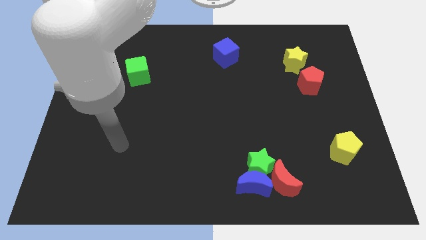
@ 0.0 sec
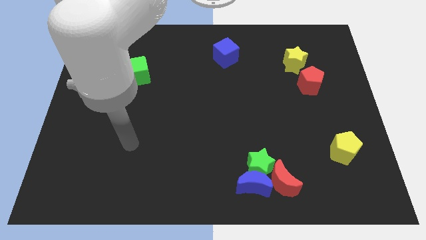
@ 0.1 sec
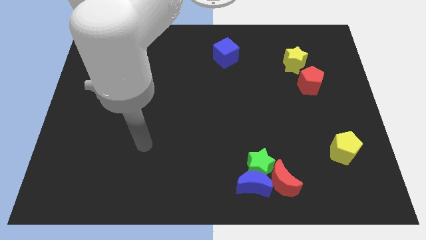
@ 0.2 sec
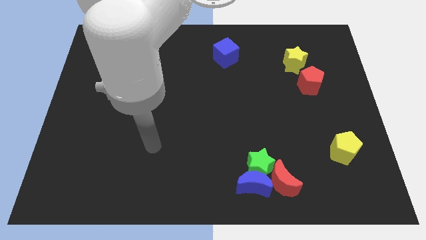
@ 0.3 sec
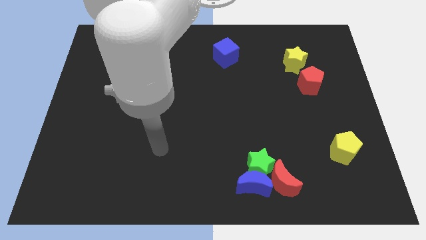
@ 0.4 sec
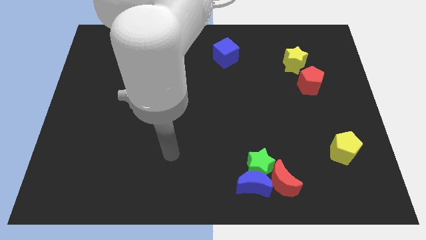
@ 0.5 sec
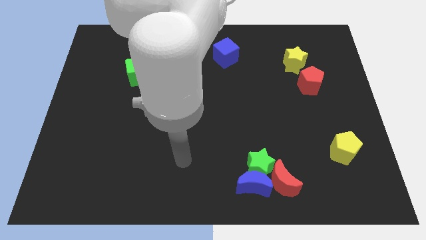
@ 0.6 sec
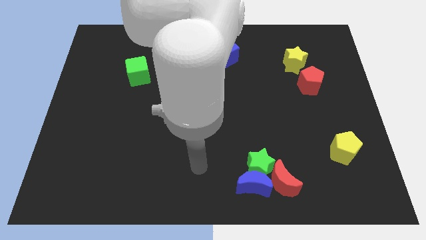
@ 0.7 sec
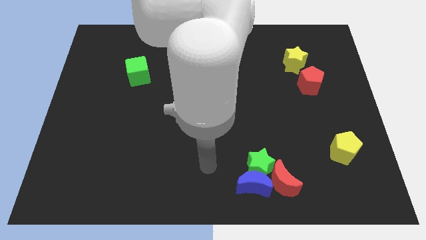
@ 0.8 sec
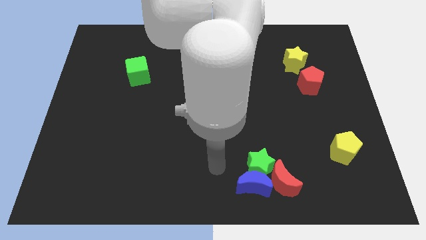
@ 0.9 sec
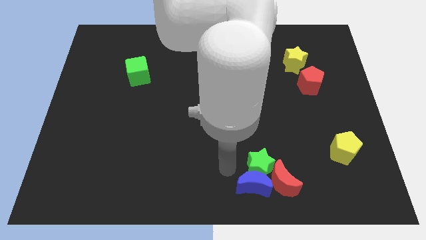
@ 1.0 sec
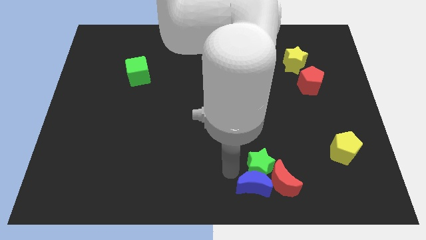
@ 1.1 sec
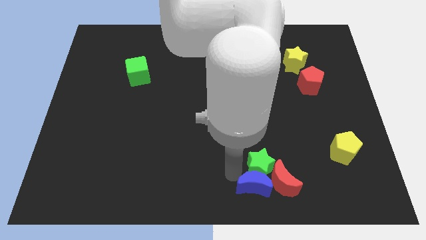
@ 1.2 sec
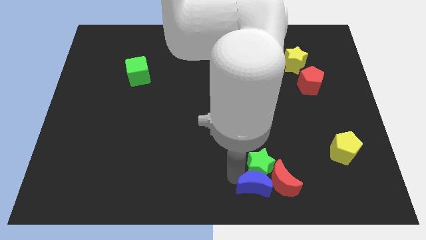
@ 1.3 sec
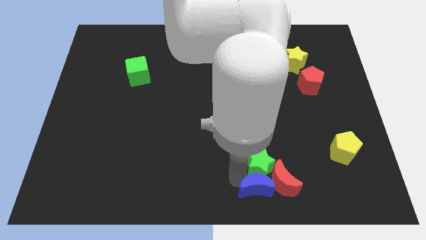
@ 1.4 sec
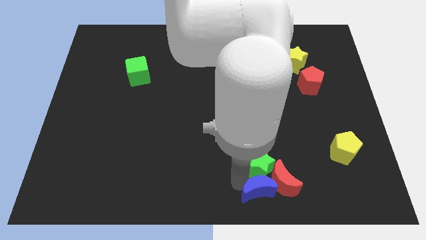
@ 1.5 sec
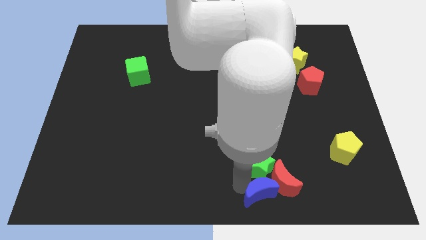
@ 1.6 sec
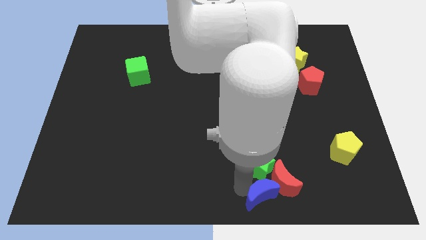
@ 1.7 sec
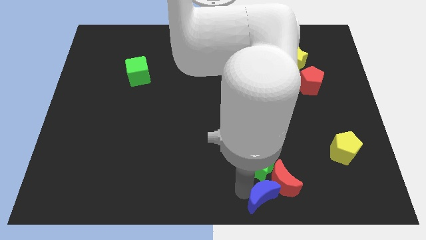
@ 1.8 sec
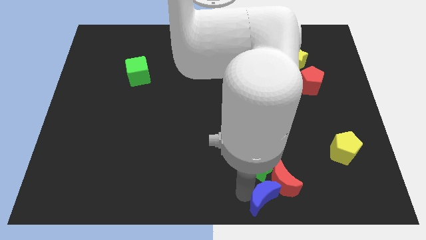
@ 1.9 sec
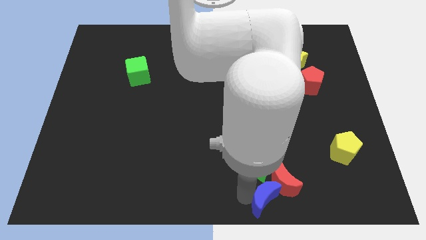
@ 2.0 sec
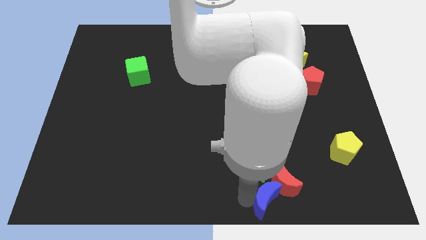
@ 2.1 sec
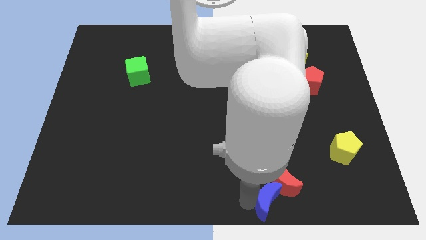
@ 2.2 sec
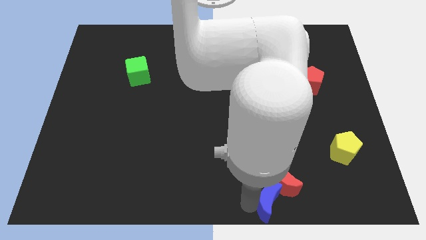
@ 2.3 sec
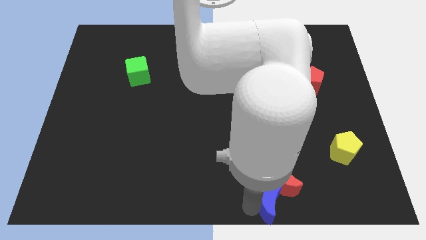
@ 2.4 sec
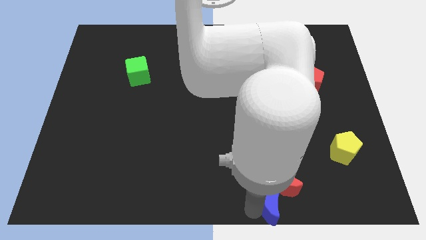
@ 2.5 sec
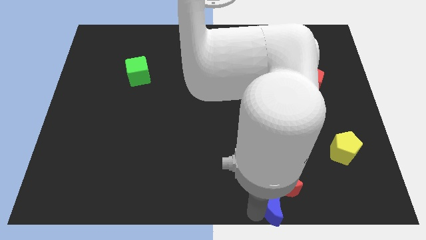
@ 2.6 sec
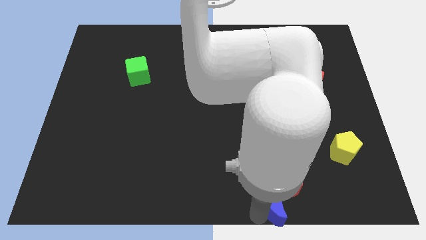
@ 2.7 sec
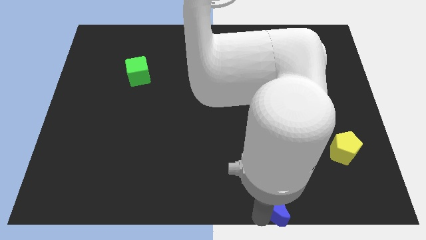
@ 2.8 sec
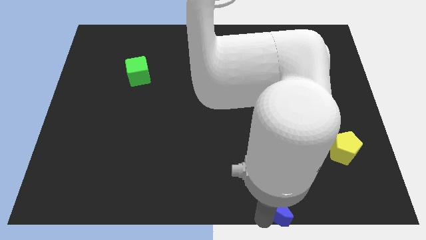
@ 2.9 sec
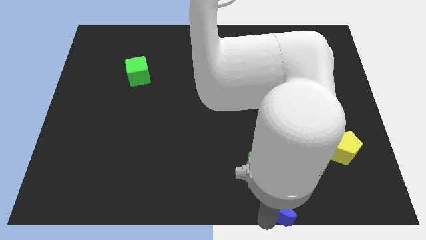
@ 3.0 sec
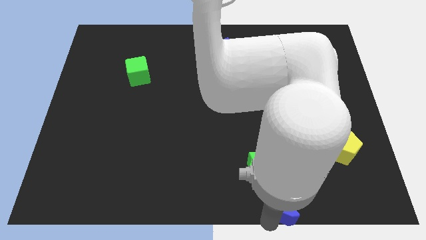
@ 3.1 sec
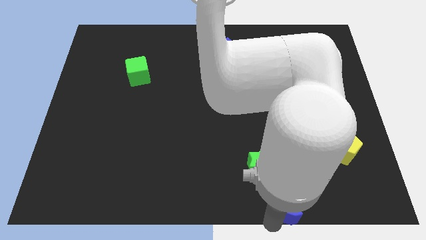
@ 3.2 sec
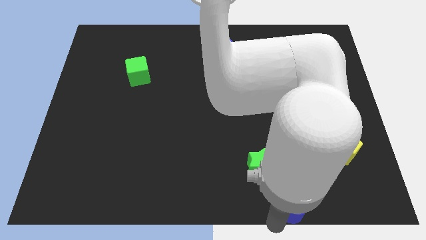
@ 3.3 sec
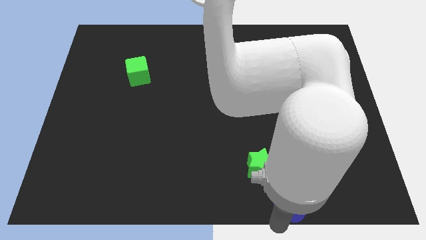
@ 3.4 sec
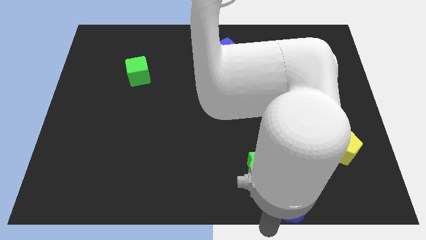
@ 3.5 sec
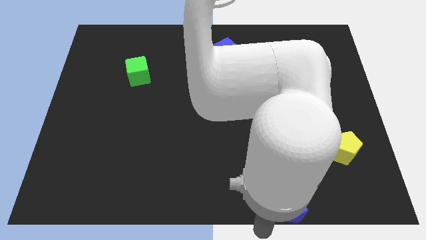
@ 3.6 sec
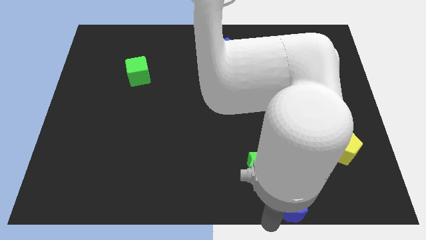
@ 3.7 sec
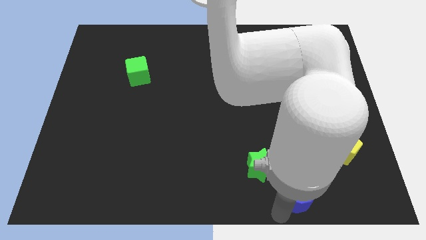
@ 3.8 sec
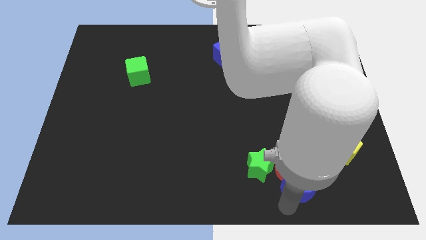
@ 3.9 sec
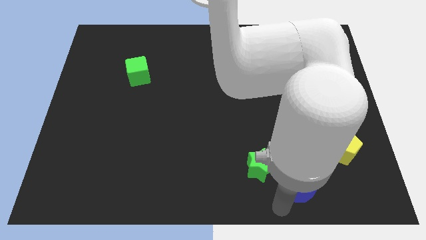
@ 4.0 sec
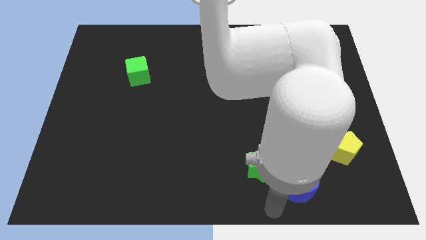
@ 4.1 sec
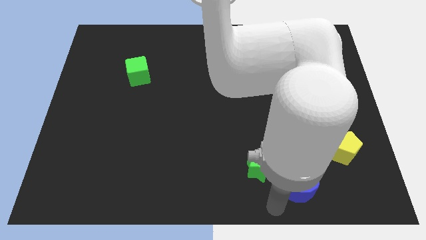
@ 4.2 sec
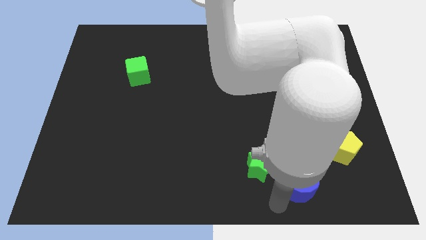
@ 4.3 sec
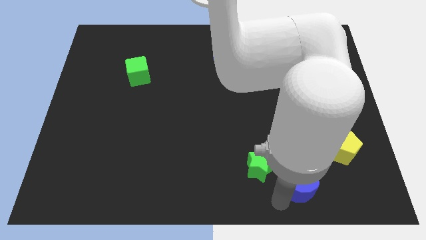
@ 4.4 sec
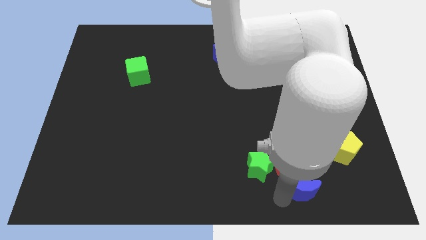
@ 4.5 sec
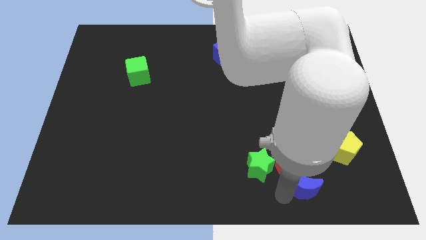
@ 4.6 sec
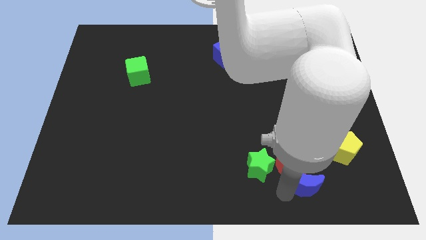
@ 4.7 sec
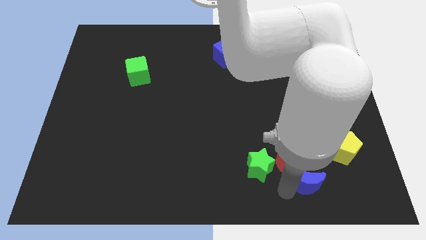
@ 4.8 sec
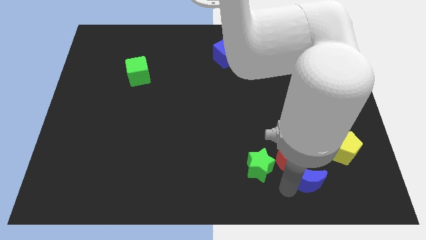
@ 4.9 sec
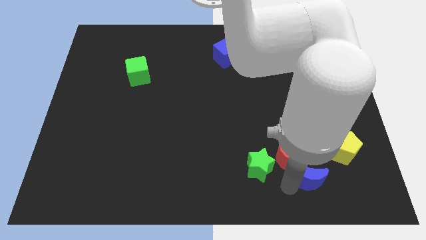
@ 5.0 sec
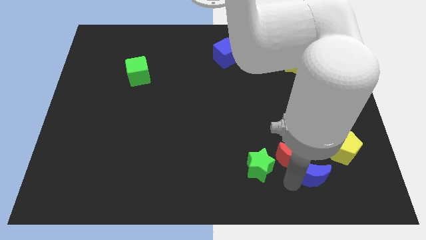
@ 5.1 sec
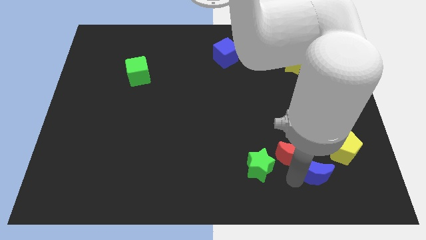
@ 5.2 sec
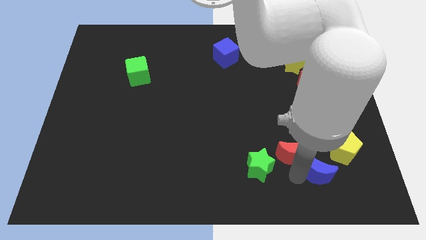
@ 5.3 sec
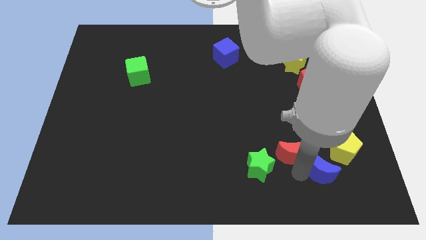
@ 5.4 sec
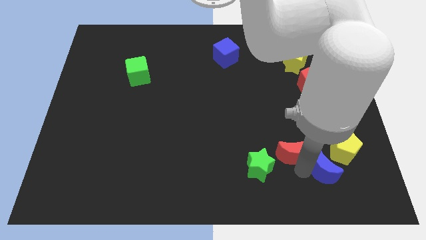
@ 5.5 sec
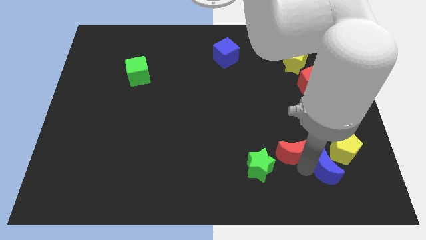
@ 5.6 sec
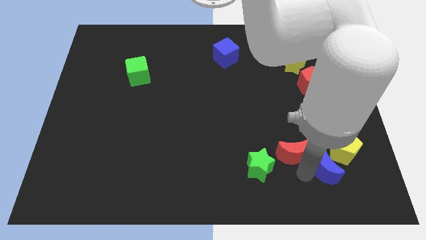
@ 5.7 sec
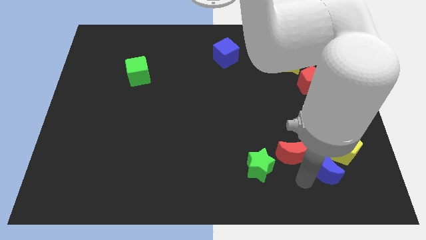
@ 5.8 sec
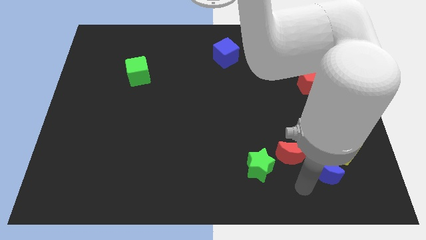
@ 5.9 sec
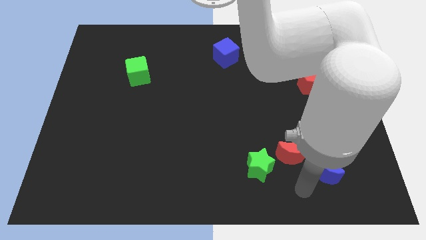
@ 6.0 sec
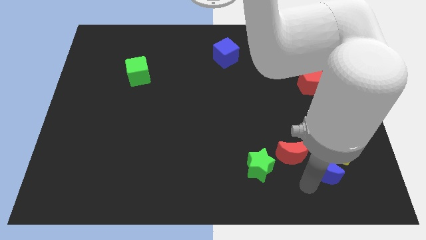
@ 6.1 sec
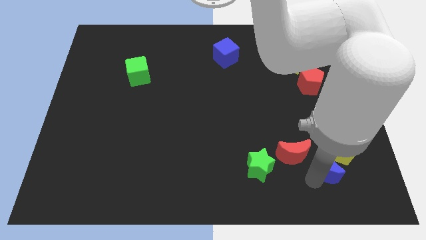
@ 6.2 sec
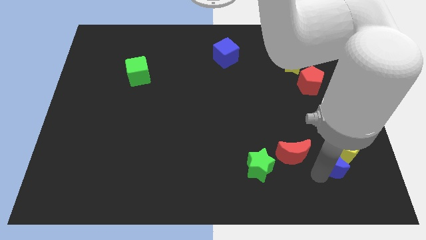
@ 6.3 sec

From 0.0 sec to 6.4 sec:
slide the blue moon towards the yellow pentagon

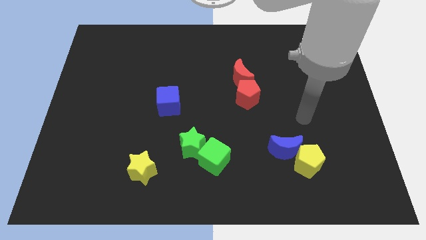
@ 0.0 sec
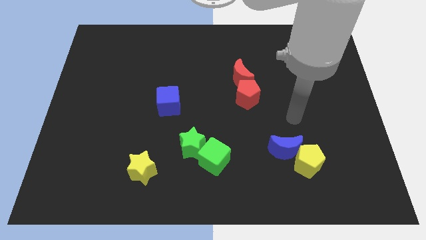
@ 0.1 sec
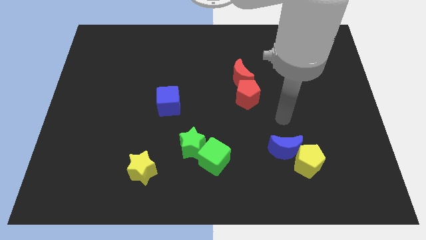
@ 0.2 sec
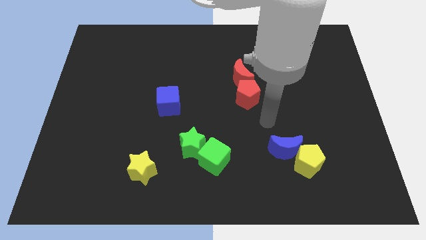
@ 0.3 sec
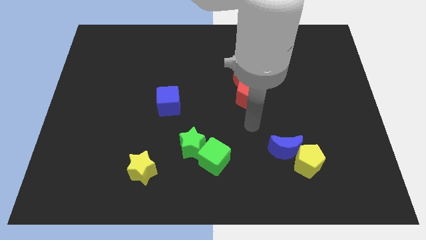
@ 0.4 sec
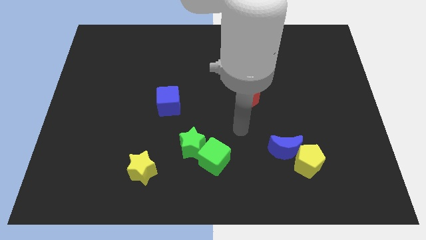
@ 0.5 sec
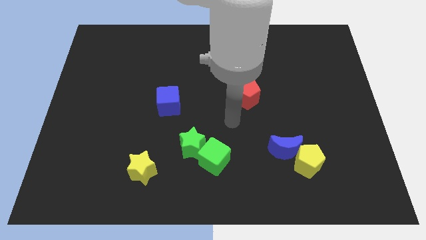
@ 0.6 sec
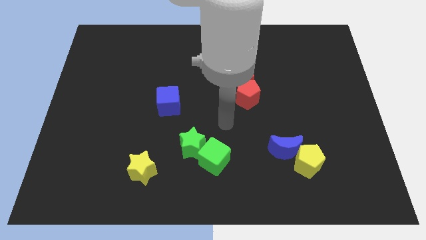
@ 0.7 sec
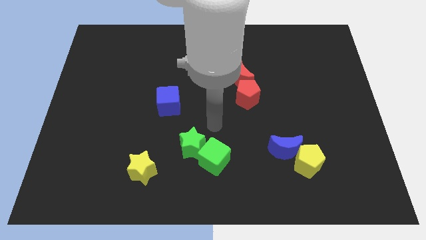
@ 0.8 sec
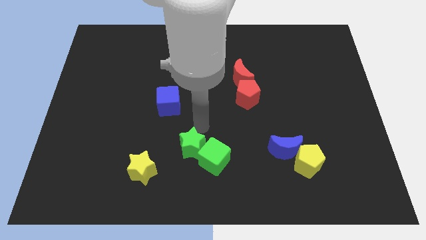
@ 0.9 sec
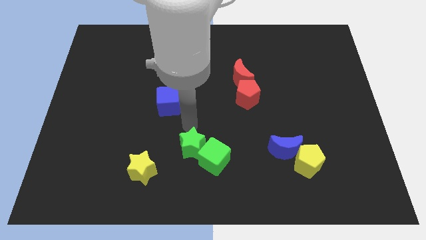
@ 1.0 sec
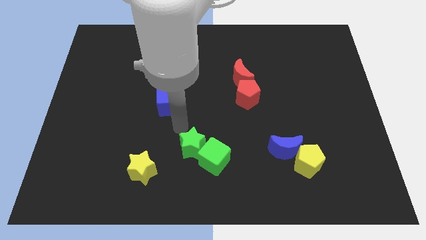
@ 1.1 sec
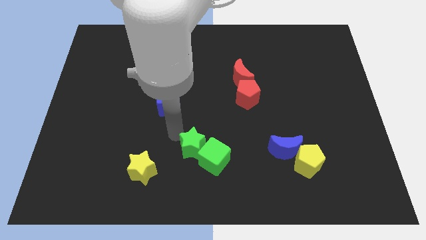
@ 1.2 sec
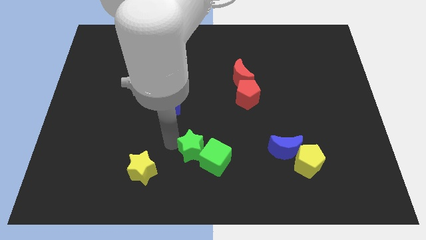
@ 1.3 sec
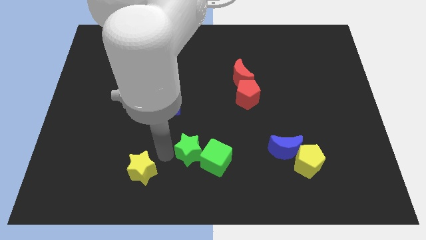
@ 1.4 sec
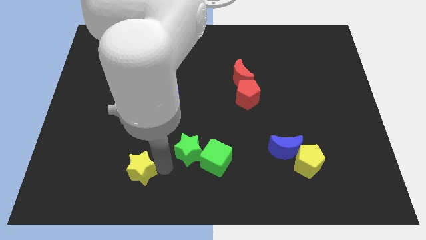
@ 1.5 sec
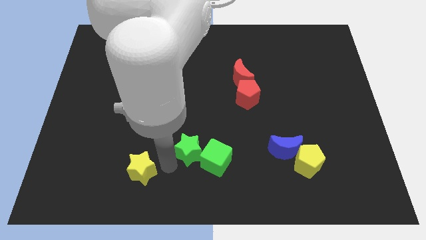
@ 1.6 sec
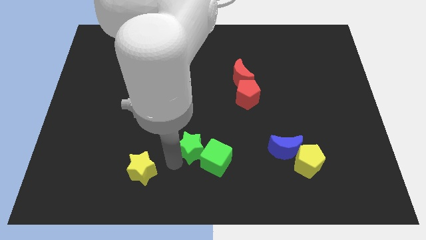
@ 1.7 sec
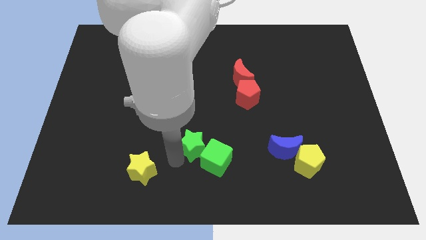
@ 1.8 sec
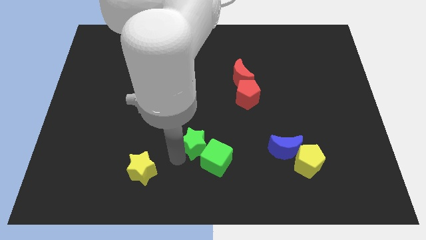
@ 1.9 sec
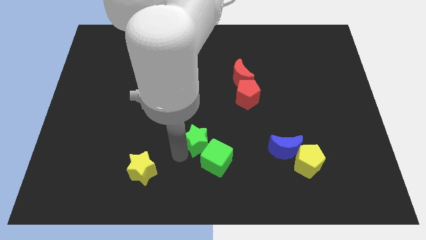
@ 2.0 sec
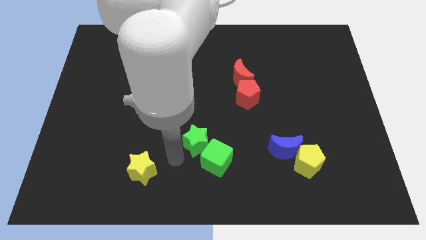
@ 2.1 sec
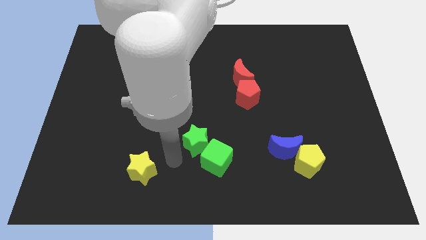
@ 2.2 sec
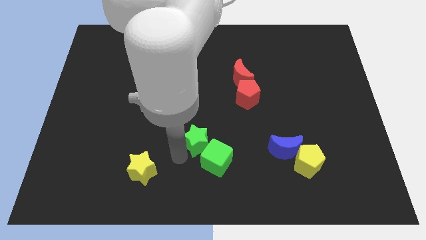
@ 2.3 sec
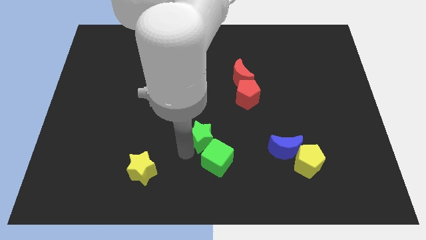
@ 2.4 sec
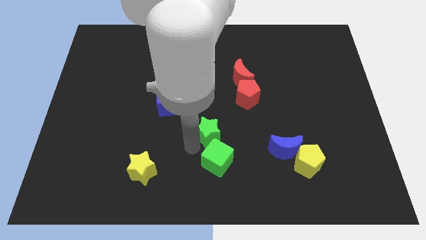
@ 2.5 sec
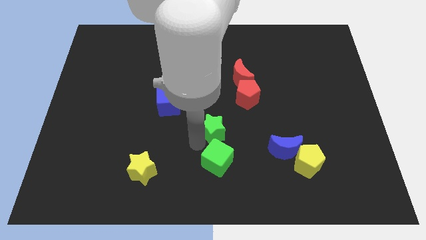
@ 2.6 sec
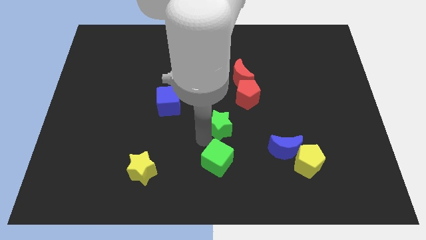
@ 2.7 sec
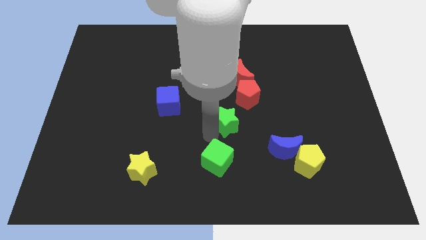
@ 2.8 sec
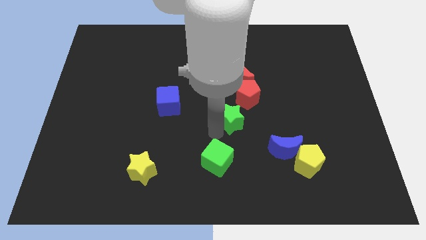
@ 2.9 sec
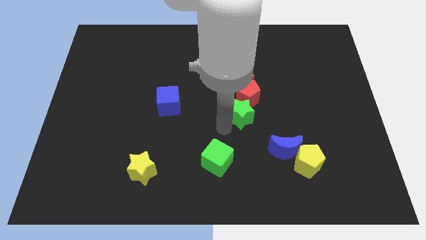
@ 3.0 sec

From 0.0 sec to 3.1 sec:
slide the green star to the red pentagon
